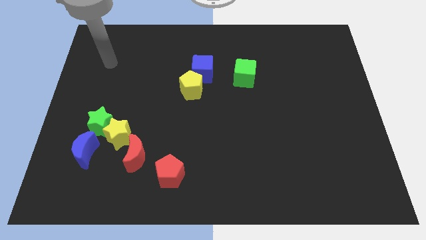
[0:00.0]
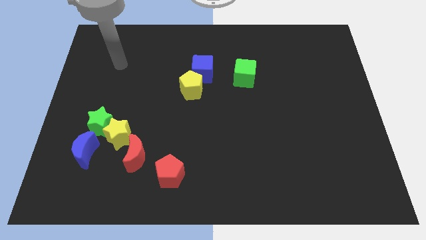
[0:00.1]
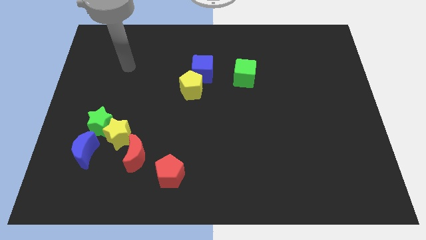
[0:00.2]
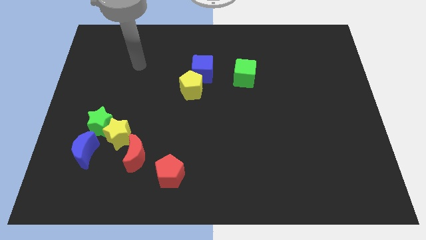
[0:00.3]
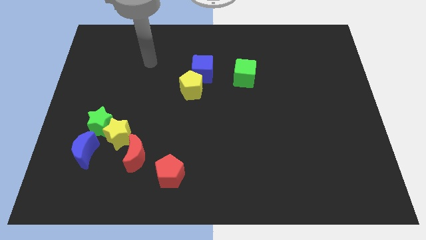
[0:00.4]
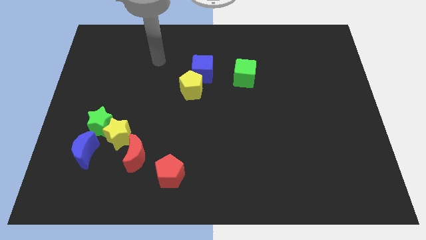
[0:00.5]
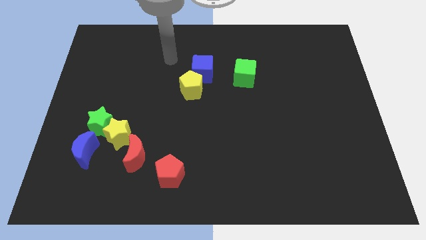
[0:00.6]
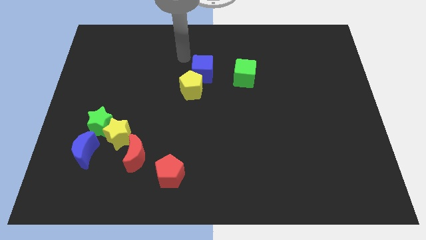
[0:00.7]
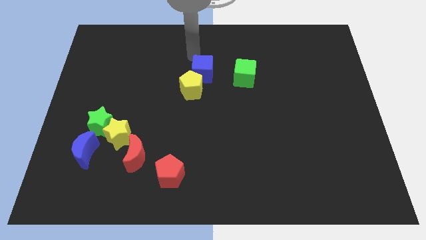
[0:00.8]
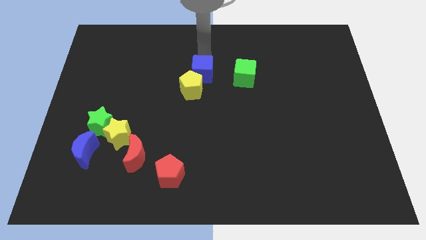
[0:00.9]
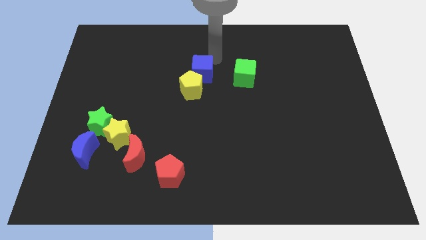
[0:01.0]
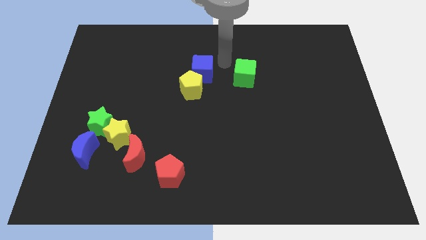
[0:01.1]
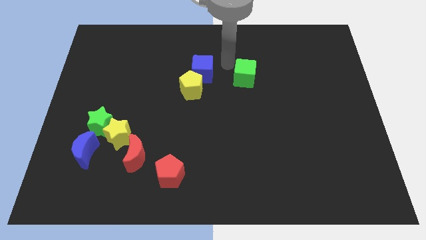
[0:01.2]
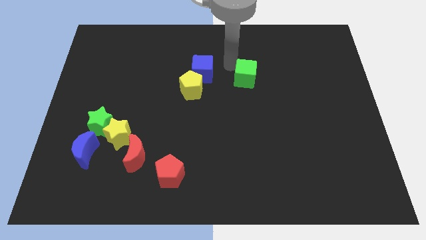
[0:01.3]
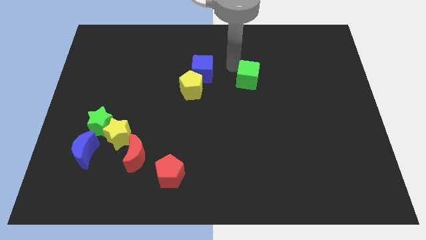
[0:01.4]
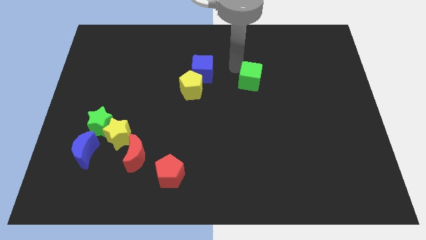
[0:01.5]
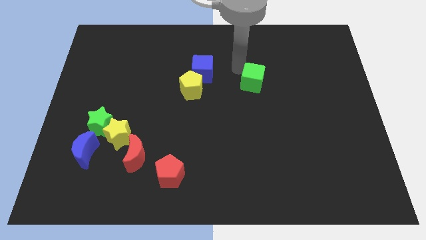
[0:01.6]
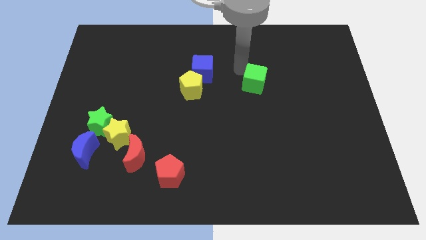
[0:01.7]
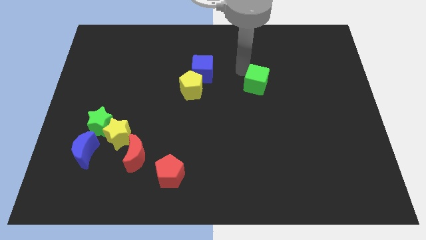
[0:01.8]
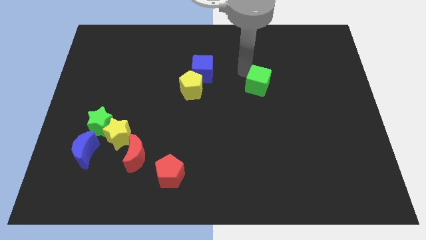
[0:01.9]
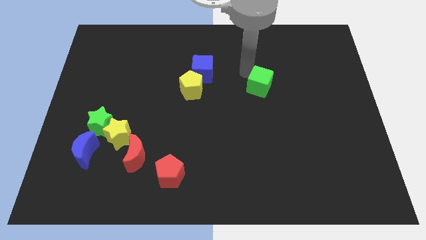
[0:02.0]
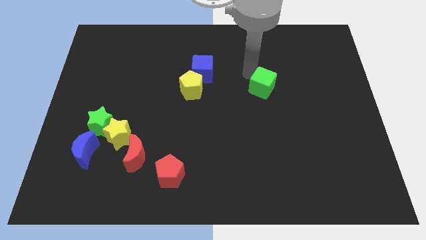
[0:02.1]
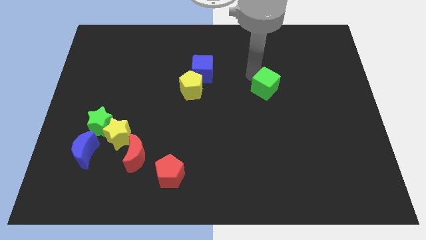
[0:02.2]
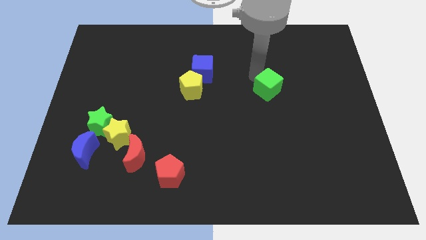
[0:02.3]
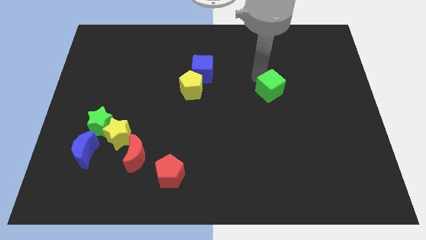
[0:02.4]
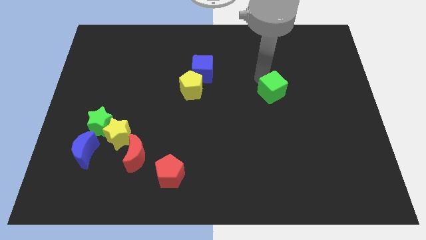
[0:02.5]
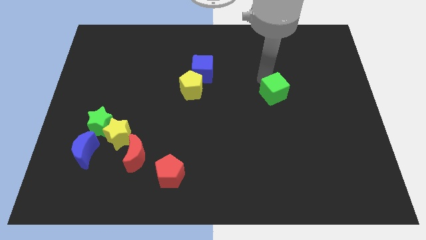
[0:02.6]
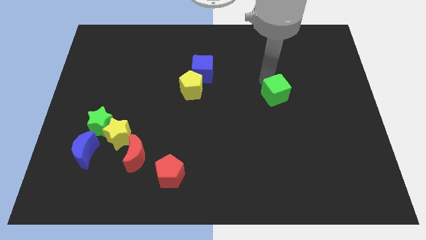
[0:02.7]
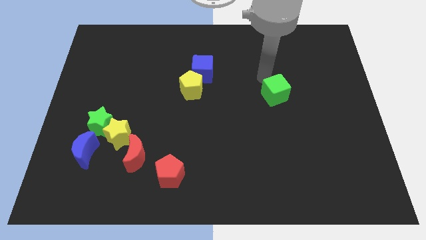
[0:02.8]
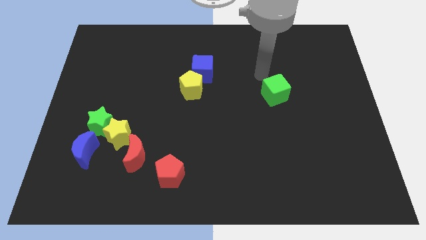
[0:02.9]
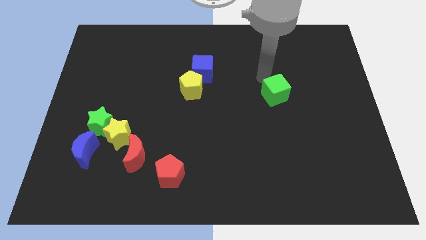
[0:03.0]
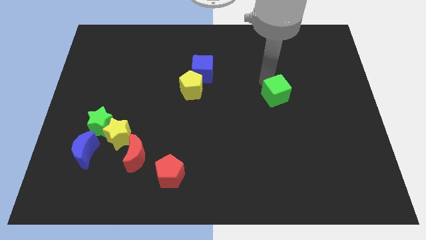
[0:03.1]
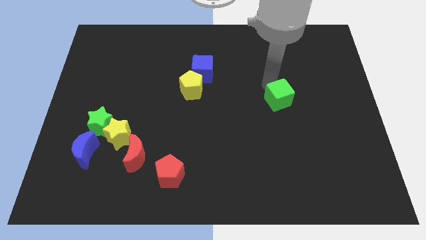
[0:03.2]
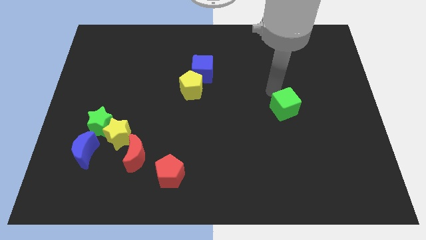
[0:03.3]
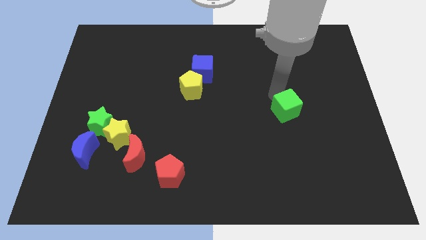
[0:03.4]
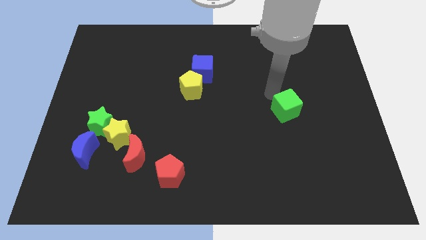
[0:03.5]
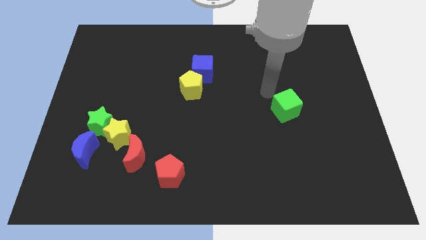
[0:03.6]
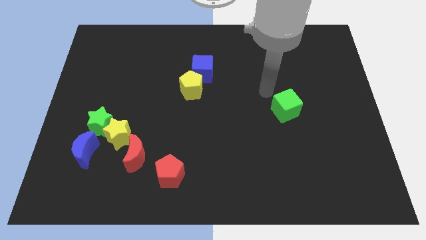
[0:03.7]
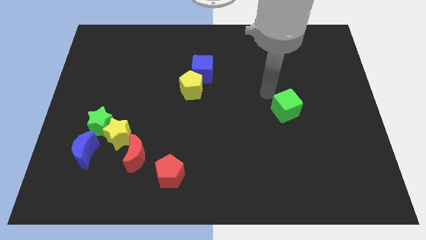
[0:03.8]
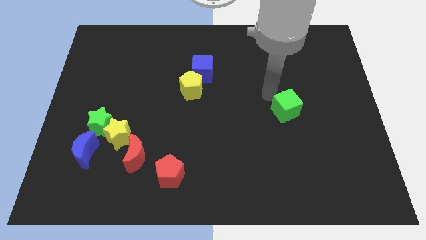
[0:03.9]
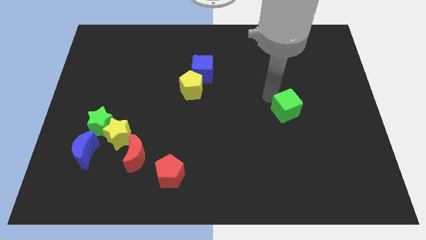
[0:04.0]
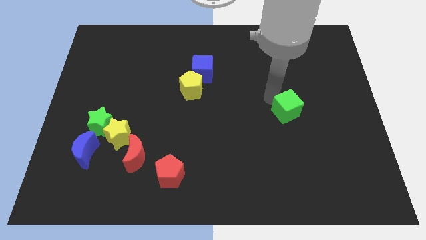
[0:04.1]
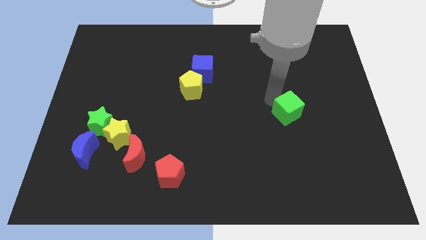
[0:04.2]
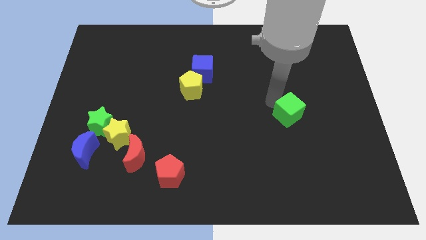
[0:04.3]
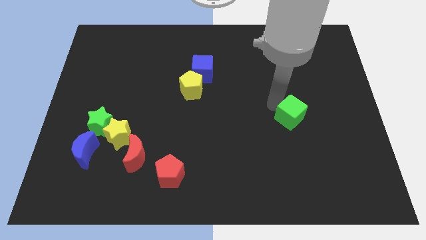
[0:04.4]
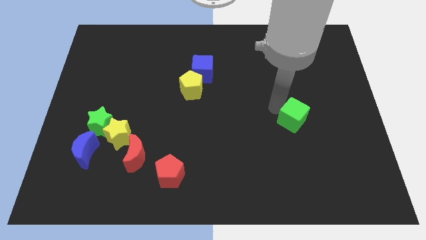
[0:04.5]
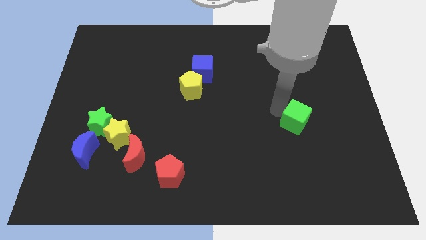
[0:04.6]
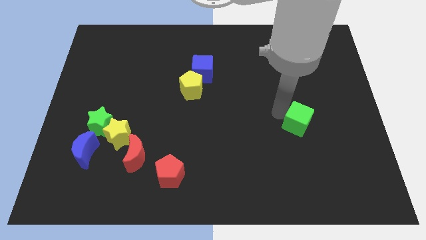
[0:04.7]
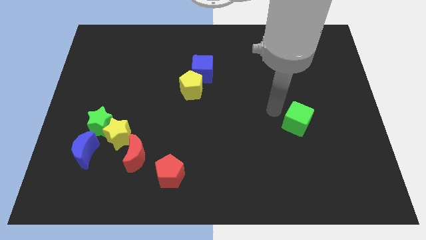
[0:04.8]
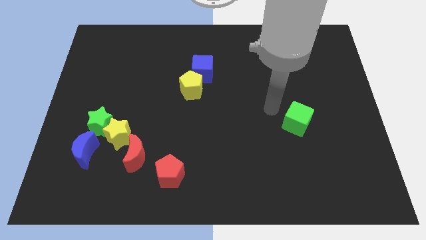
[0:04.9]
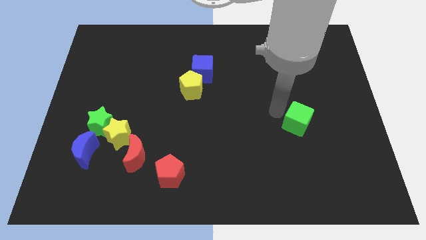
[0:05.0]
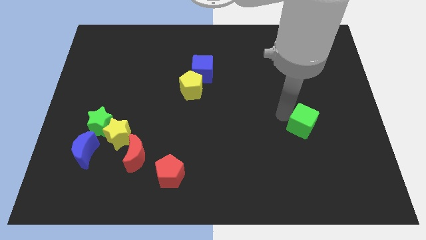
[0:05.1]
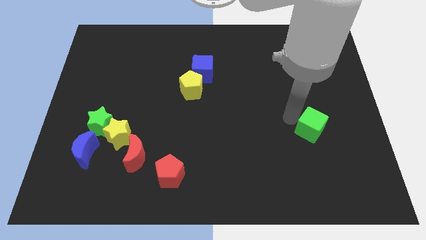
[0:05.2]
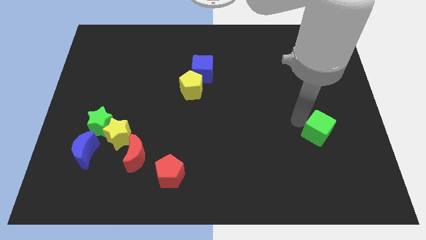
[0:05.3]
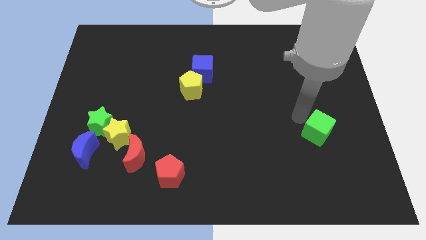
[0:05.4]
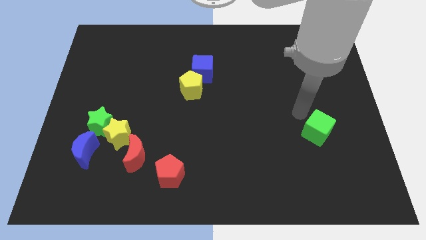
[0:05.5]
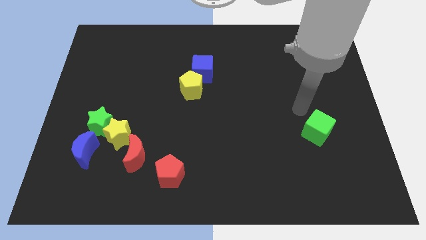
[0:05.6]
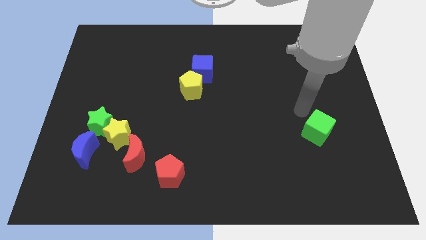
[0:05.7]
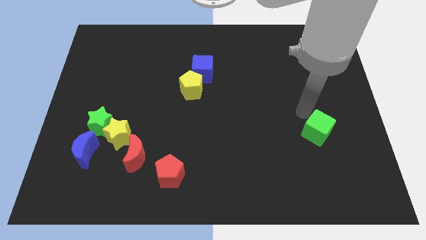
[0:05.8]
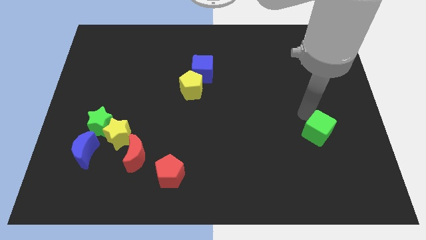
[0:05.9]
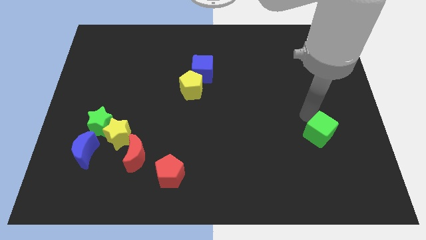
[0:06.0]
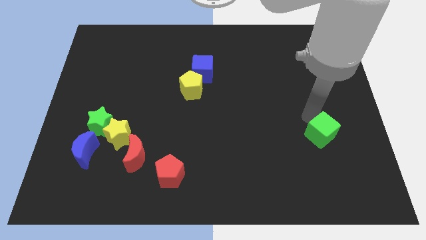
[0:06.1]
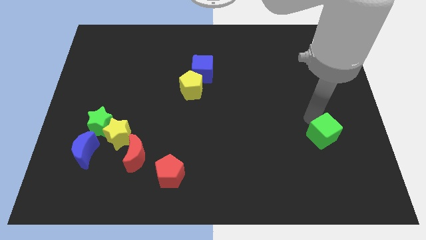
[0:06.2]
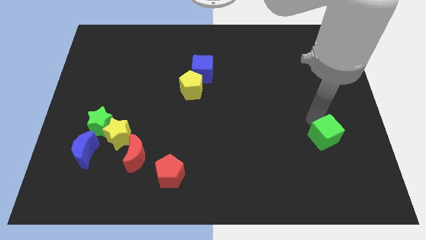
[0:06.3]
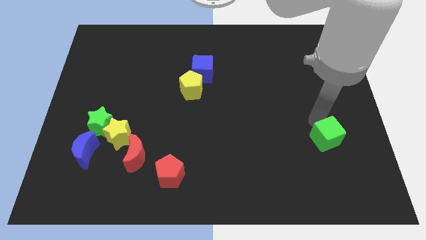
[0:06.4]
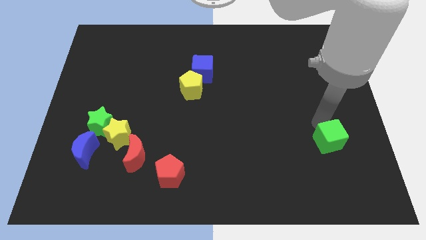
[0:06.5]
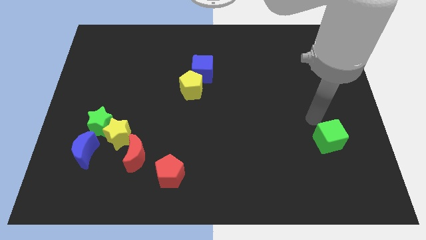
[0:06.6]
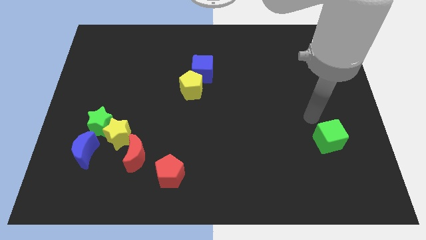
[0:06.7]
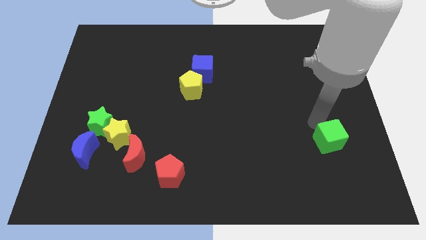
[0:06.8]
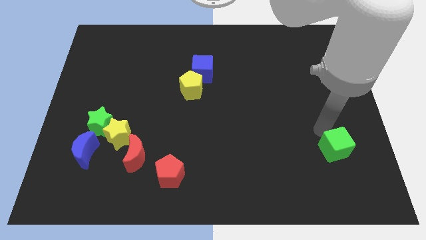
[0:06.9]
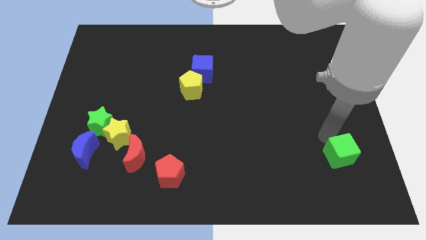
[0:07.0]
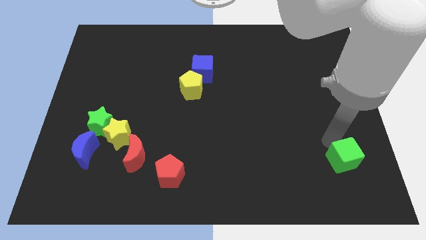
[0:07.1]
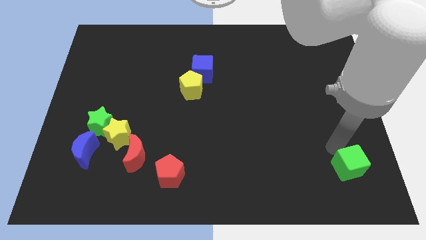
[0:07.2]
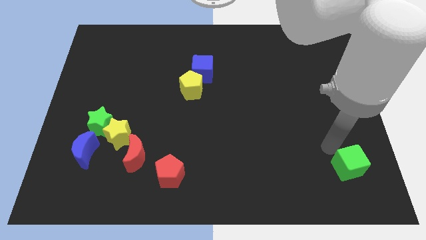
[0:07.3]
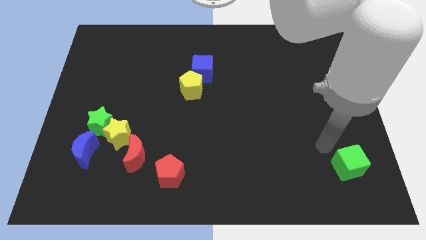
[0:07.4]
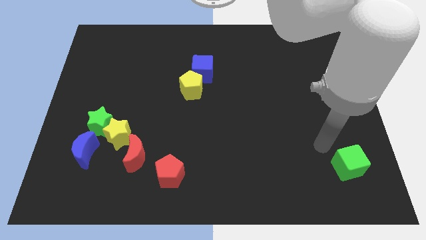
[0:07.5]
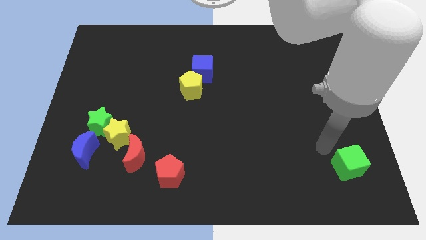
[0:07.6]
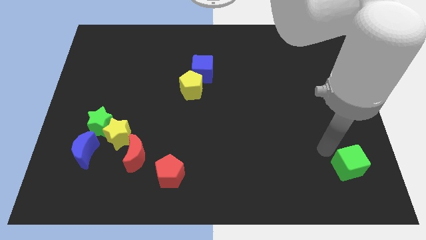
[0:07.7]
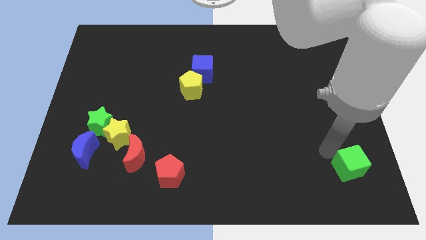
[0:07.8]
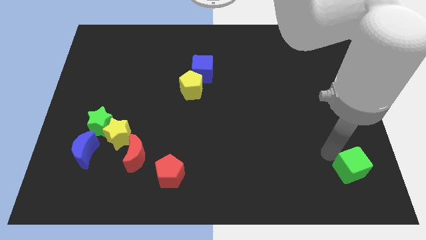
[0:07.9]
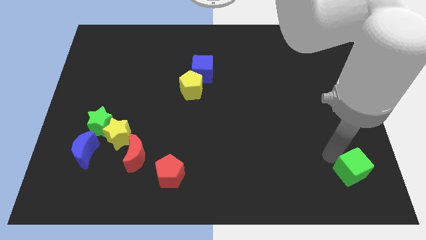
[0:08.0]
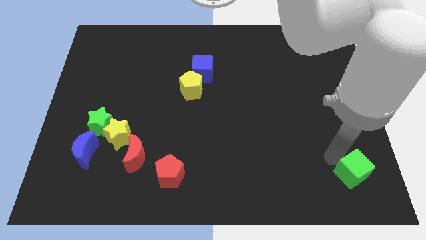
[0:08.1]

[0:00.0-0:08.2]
move the green cube to the lower right corner
